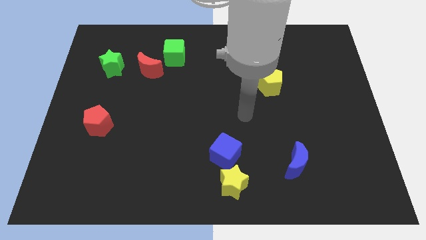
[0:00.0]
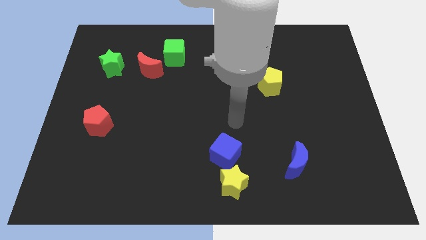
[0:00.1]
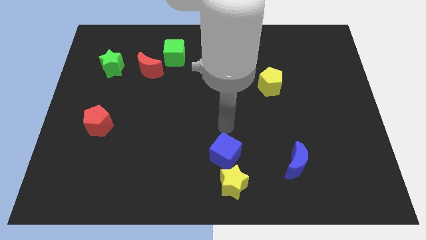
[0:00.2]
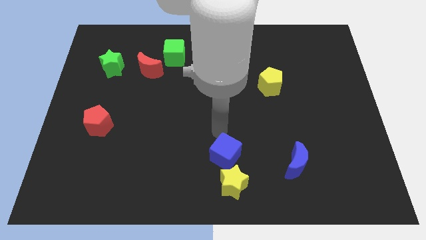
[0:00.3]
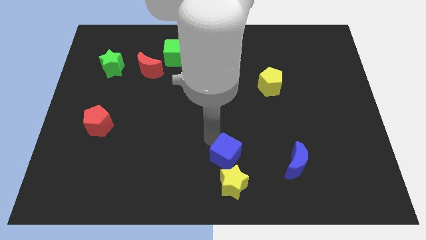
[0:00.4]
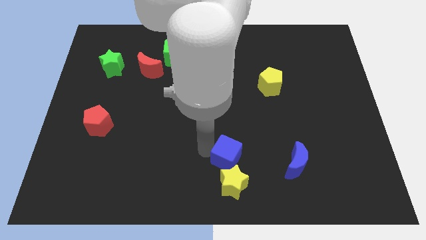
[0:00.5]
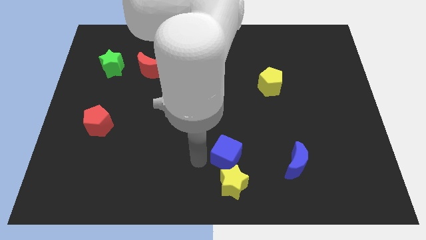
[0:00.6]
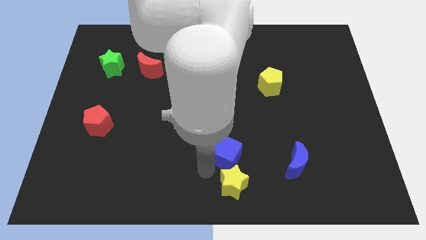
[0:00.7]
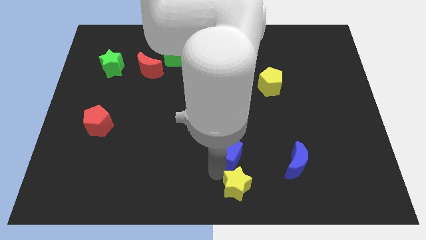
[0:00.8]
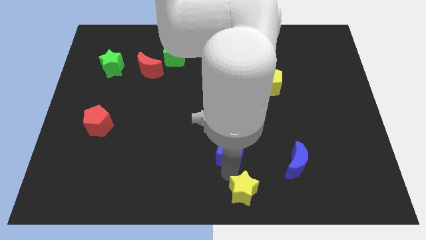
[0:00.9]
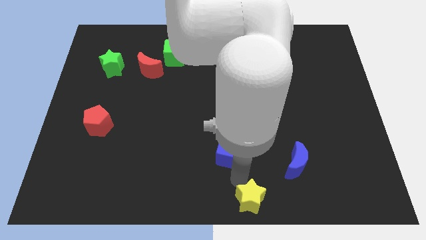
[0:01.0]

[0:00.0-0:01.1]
separate the blue cube from the yellow star

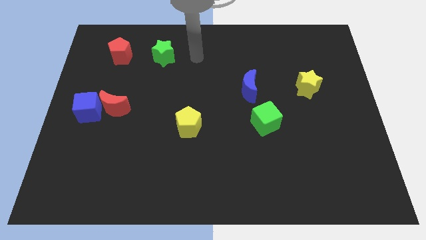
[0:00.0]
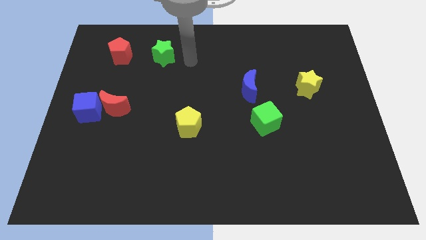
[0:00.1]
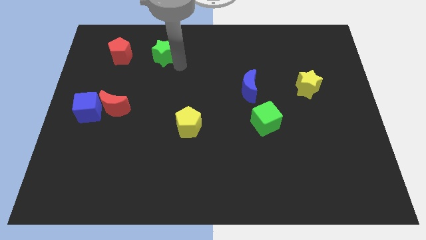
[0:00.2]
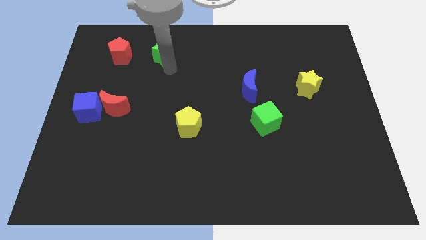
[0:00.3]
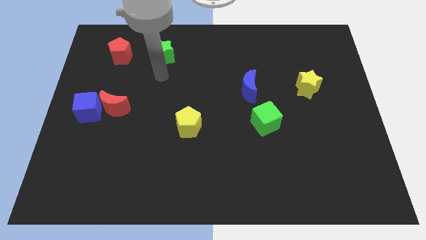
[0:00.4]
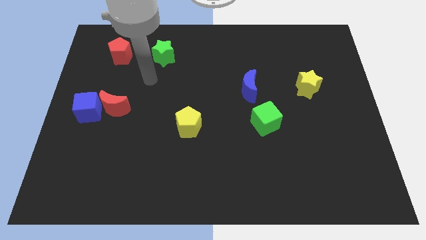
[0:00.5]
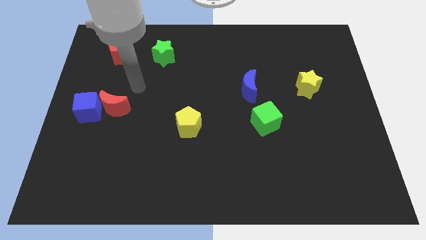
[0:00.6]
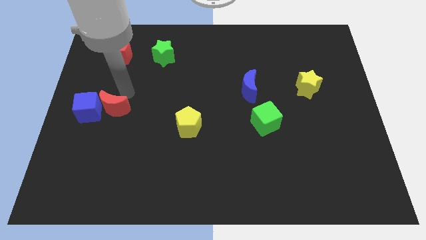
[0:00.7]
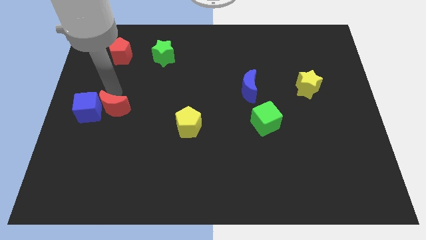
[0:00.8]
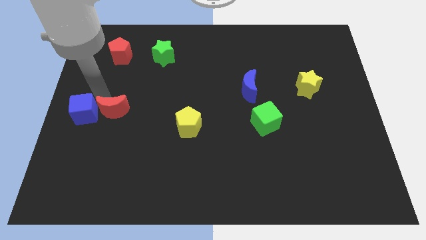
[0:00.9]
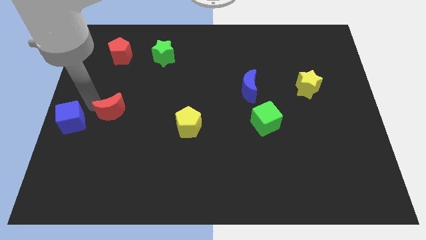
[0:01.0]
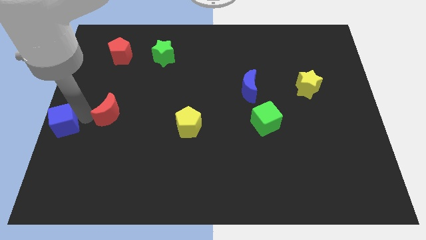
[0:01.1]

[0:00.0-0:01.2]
separate the red moon from the blue cube

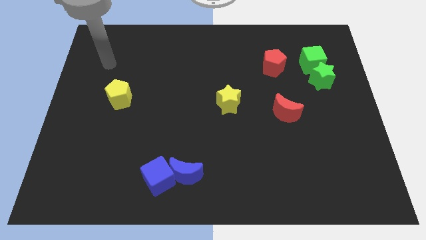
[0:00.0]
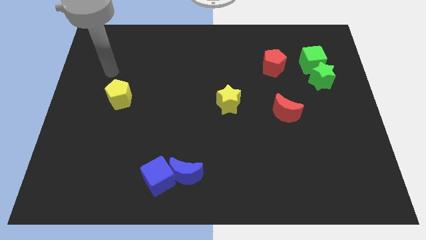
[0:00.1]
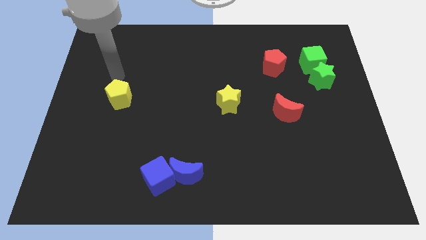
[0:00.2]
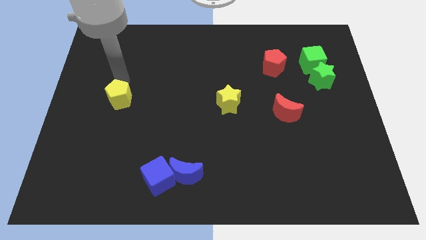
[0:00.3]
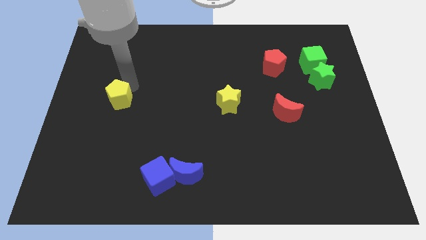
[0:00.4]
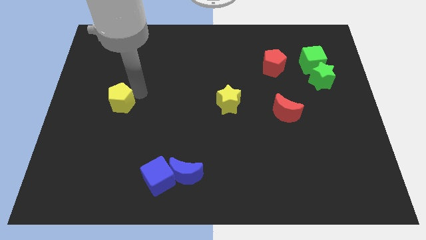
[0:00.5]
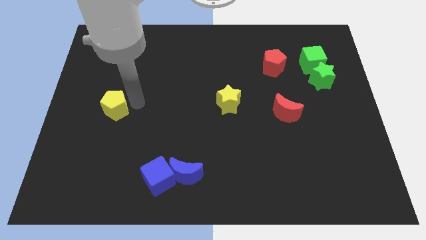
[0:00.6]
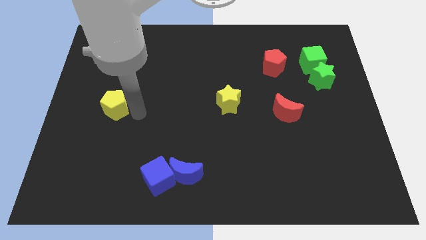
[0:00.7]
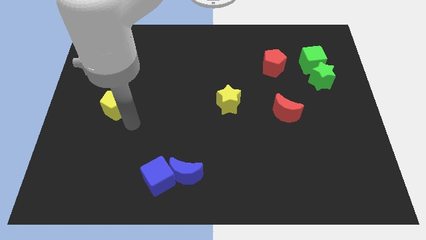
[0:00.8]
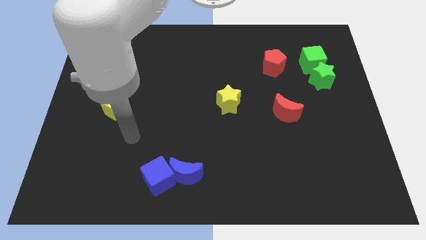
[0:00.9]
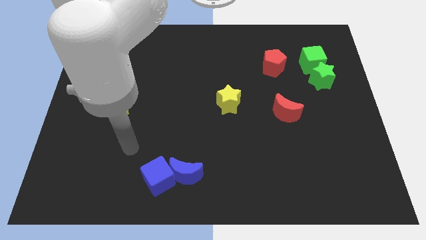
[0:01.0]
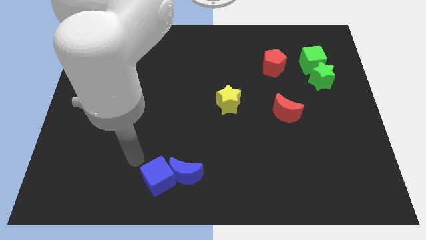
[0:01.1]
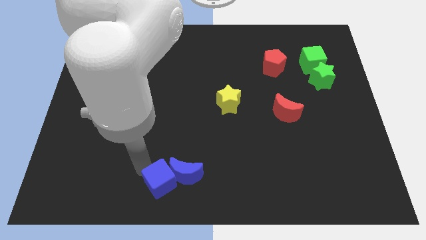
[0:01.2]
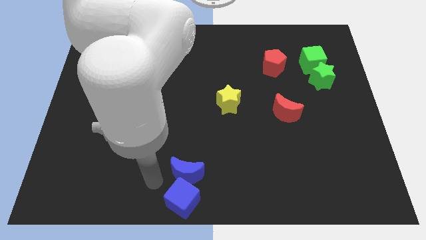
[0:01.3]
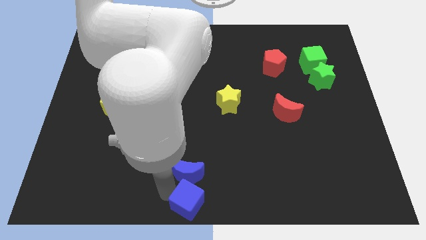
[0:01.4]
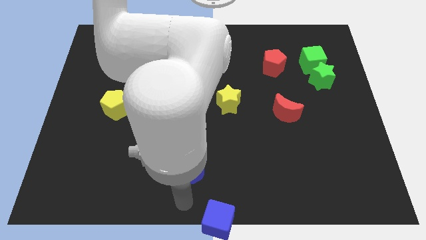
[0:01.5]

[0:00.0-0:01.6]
separate the blue moon from the blue cube

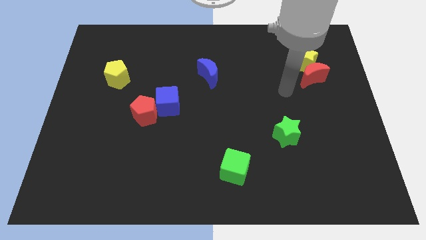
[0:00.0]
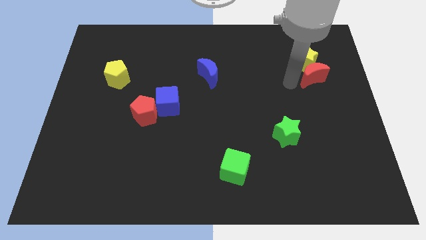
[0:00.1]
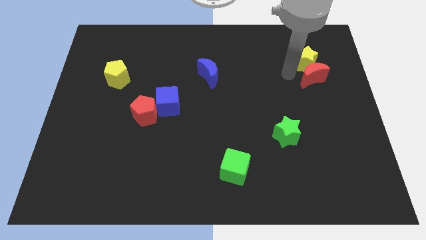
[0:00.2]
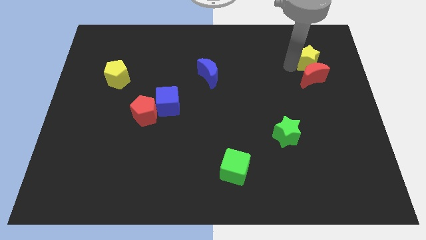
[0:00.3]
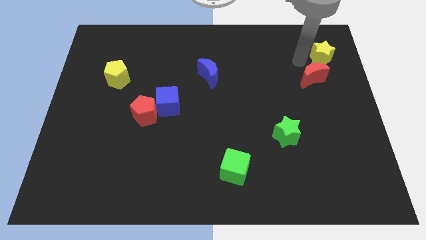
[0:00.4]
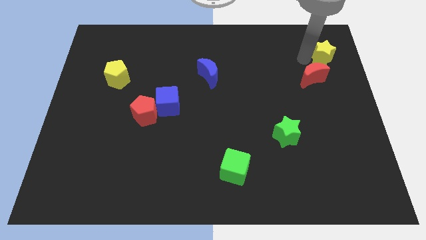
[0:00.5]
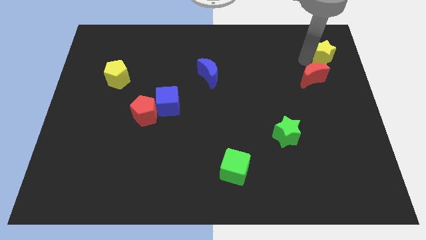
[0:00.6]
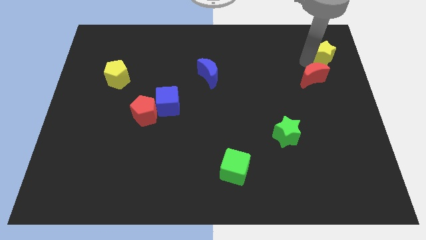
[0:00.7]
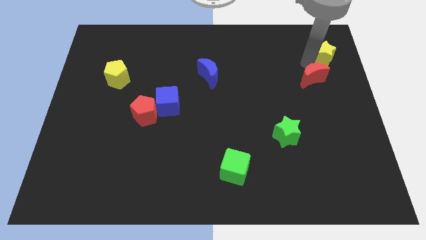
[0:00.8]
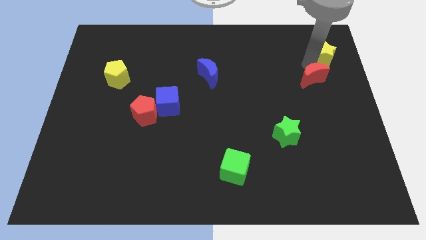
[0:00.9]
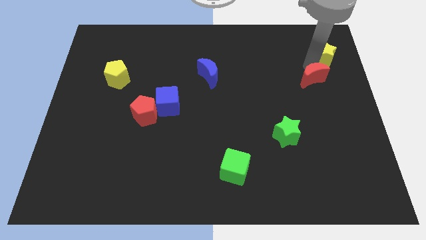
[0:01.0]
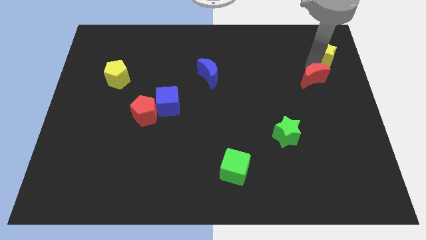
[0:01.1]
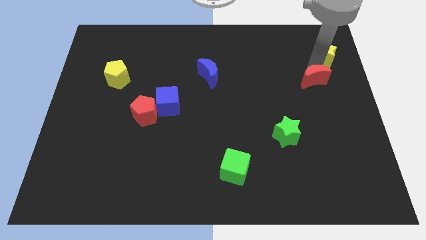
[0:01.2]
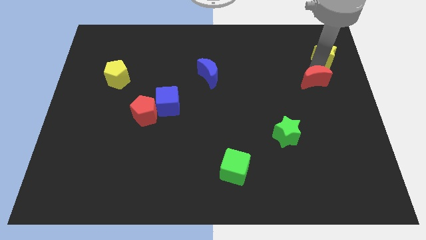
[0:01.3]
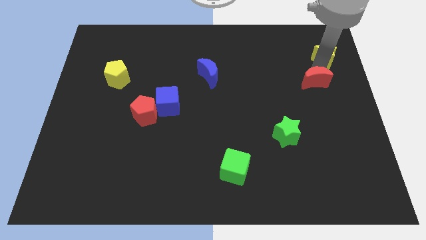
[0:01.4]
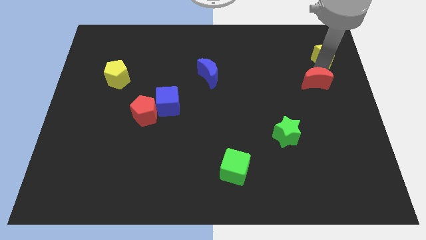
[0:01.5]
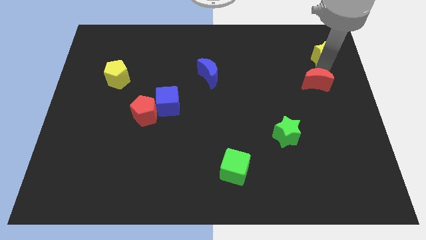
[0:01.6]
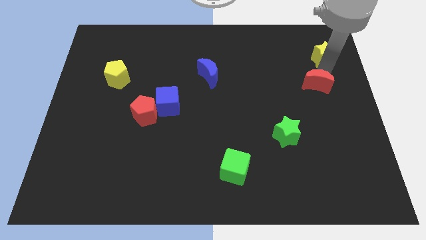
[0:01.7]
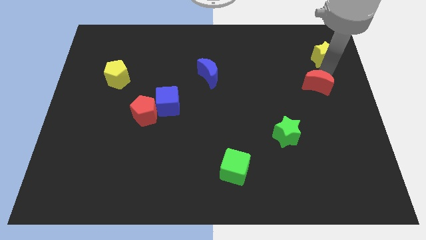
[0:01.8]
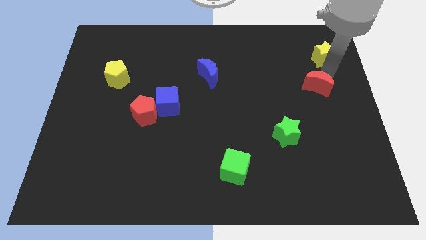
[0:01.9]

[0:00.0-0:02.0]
move the red moon away from the yellow star

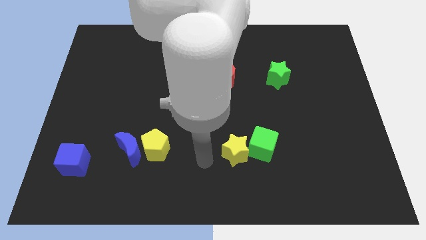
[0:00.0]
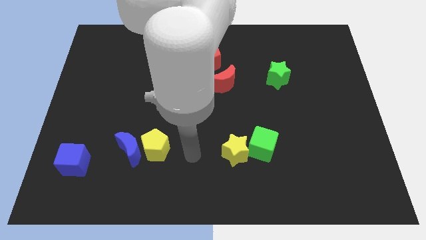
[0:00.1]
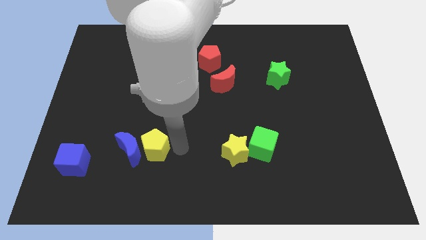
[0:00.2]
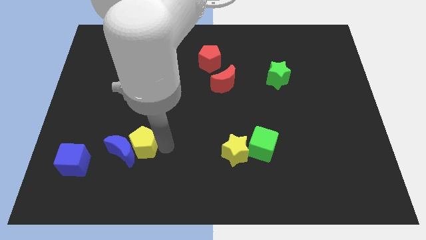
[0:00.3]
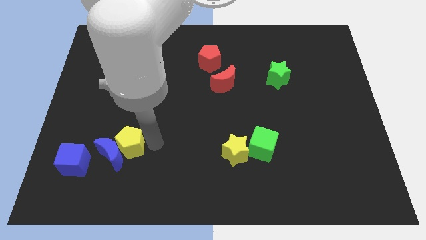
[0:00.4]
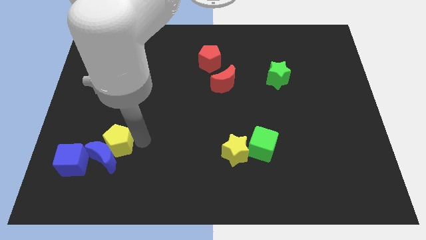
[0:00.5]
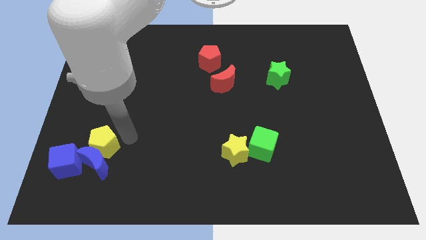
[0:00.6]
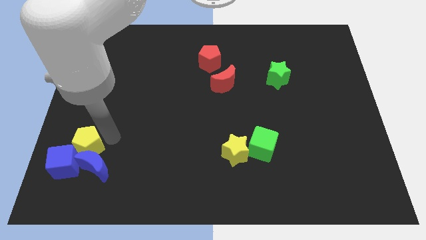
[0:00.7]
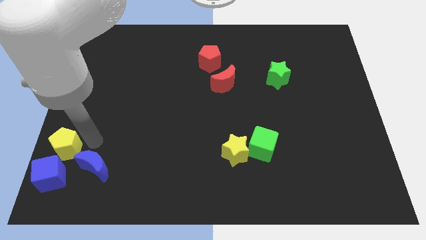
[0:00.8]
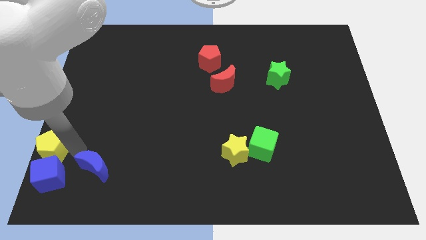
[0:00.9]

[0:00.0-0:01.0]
separate the blue moon from the yellow pentagon

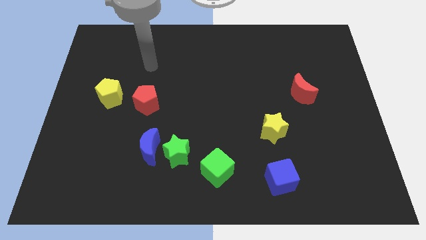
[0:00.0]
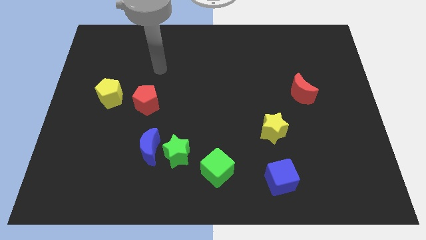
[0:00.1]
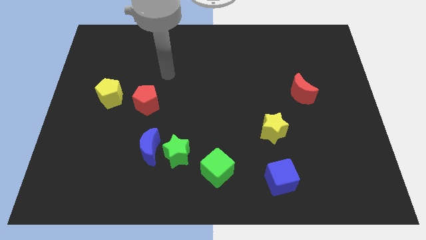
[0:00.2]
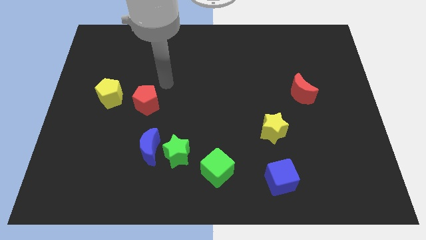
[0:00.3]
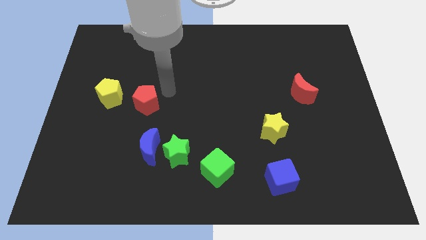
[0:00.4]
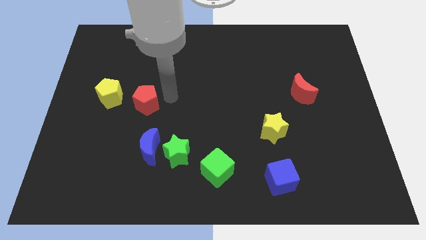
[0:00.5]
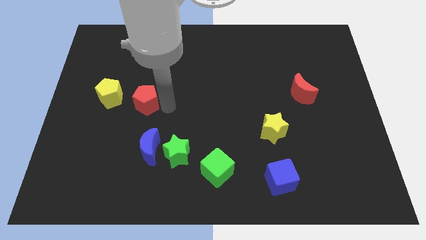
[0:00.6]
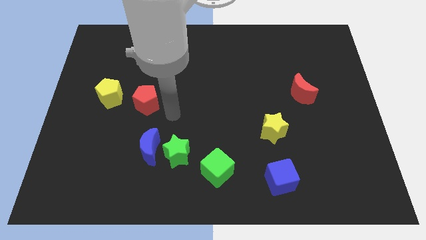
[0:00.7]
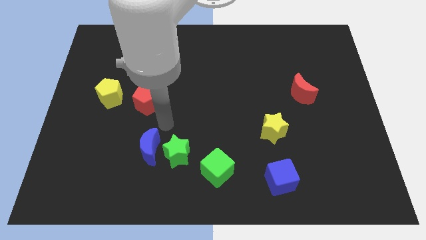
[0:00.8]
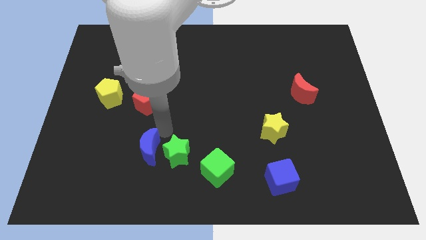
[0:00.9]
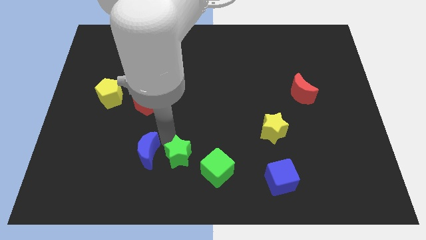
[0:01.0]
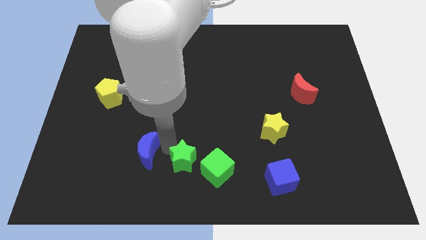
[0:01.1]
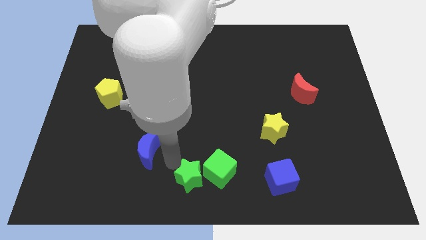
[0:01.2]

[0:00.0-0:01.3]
pull the blue moon apart from the green star

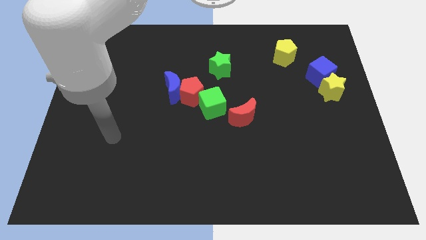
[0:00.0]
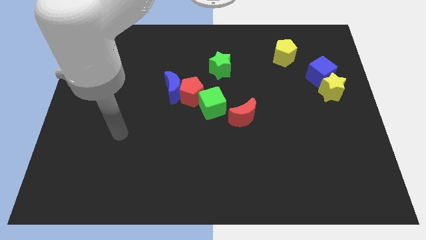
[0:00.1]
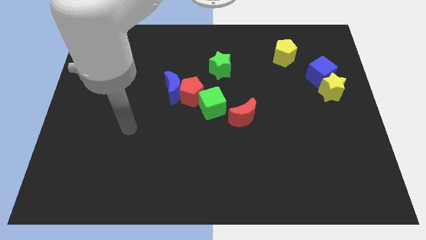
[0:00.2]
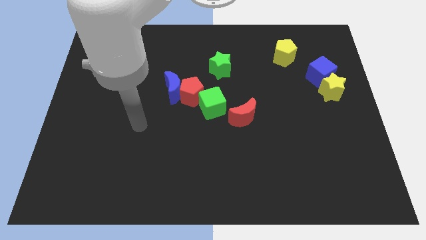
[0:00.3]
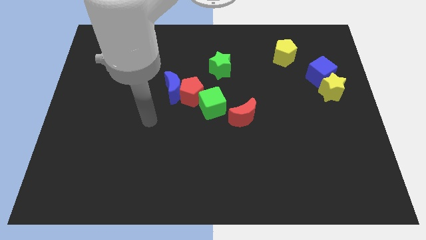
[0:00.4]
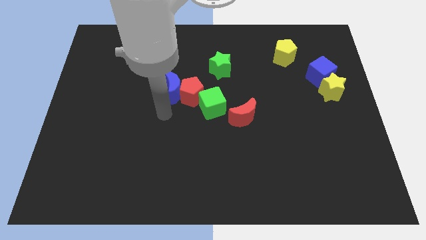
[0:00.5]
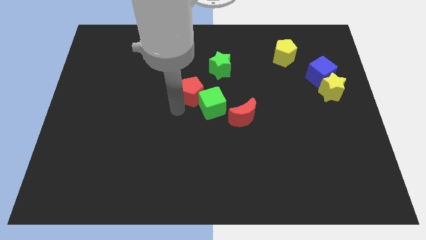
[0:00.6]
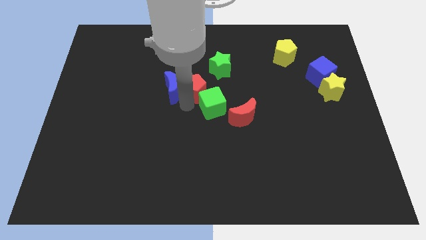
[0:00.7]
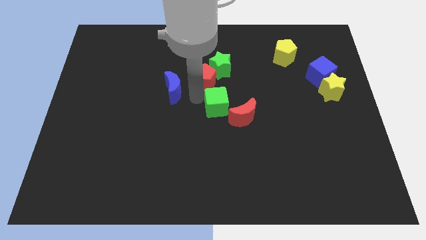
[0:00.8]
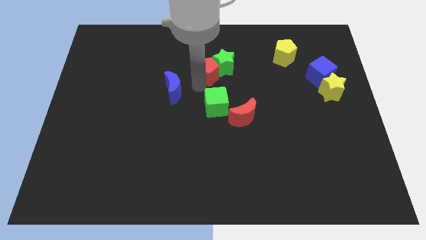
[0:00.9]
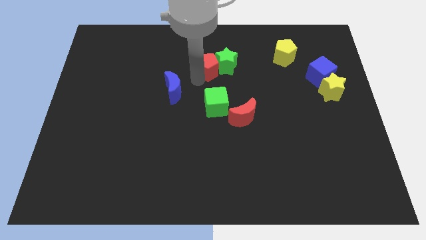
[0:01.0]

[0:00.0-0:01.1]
pull the blue moon apart from the red pentagon
